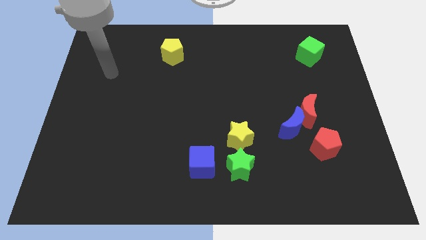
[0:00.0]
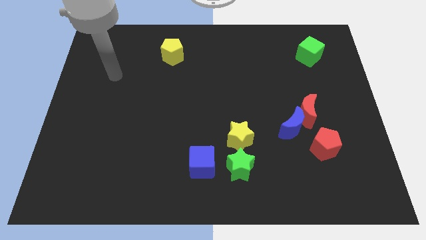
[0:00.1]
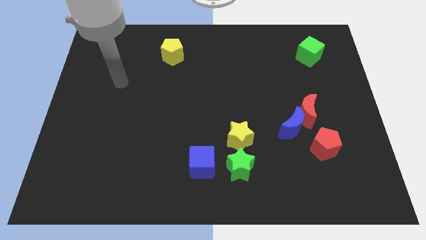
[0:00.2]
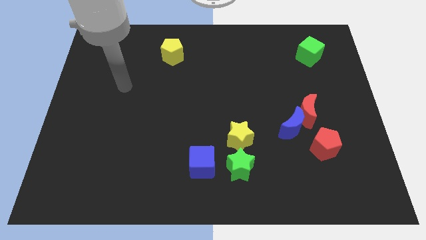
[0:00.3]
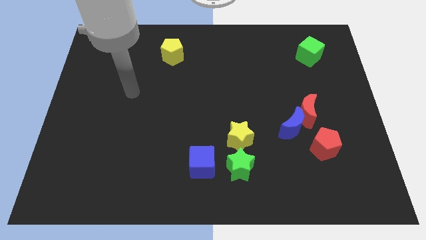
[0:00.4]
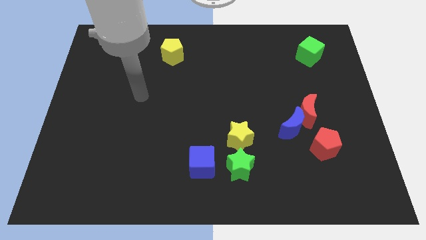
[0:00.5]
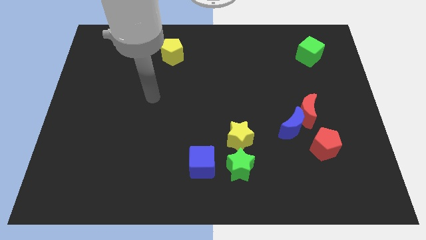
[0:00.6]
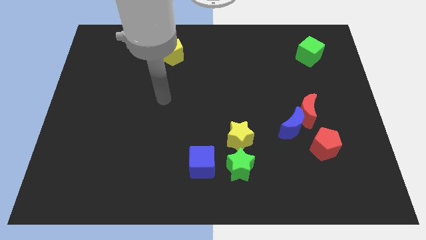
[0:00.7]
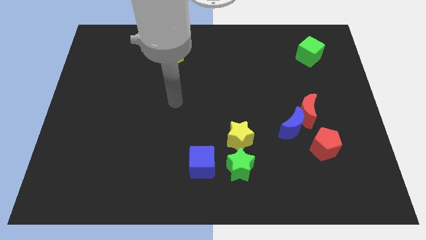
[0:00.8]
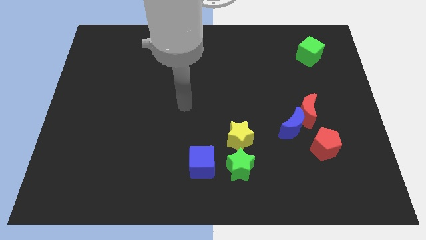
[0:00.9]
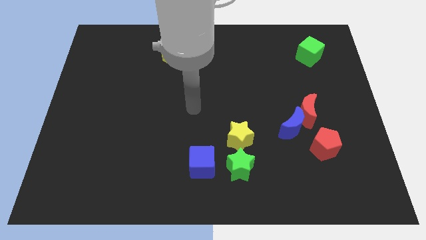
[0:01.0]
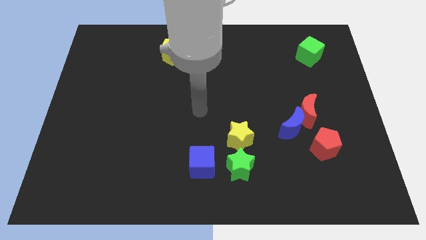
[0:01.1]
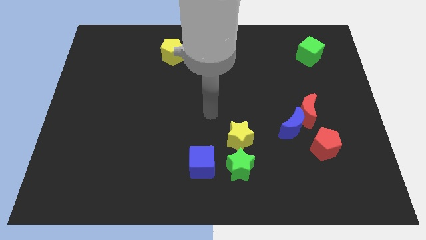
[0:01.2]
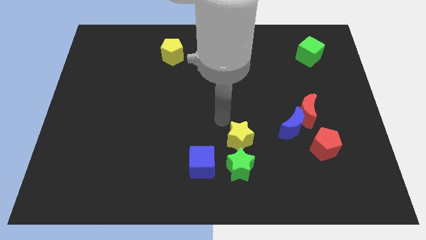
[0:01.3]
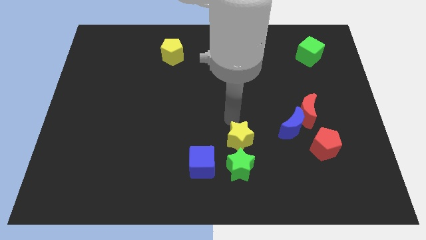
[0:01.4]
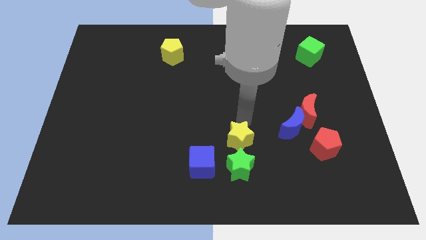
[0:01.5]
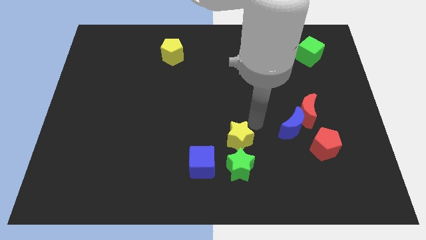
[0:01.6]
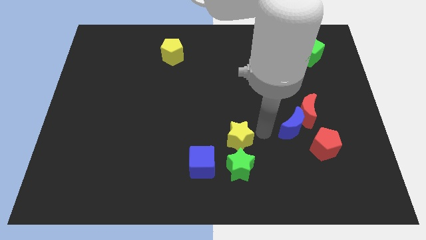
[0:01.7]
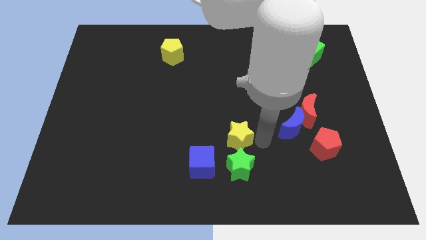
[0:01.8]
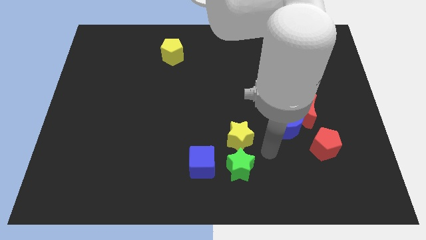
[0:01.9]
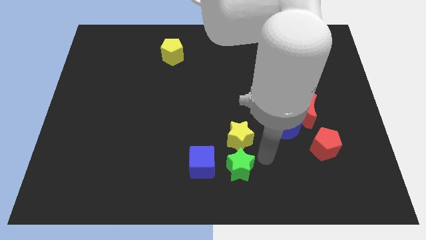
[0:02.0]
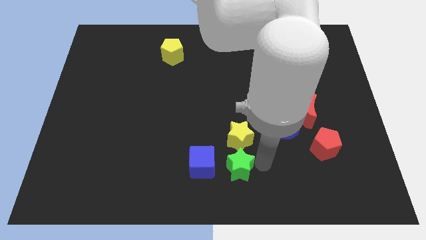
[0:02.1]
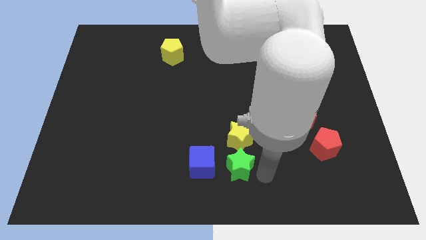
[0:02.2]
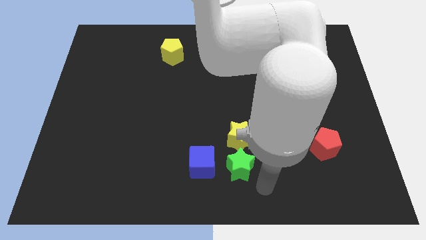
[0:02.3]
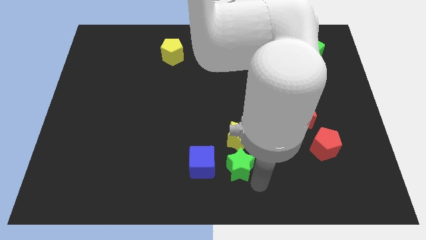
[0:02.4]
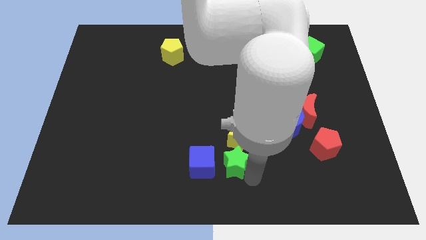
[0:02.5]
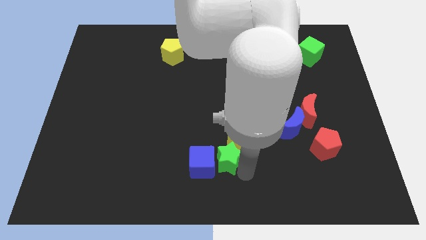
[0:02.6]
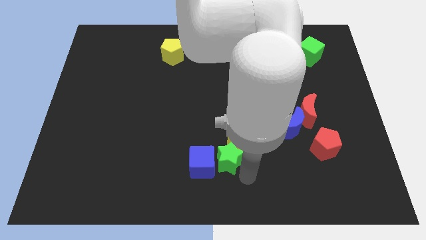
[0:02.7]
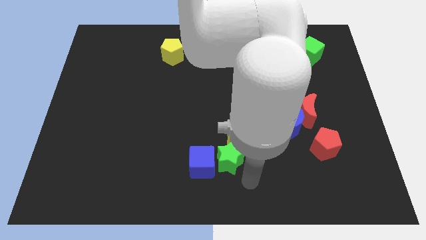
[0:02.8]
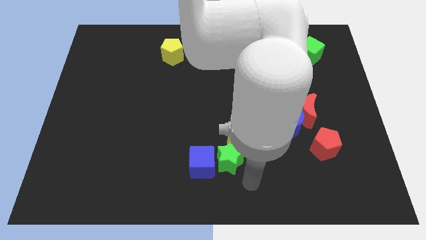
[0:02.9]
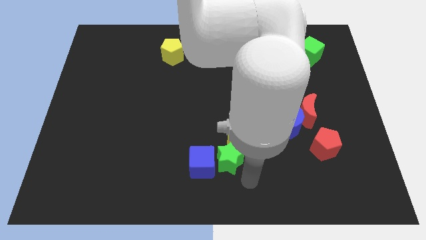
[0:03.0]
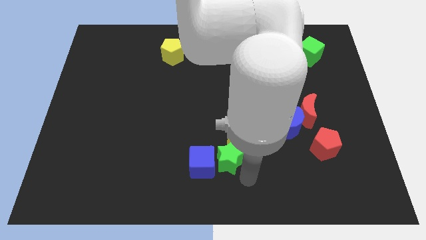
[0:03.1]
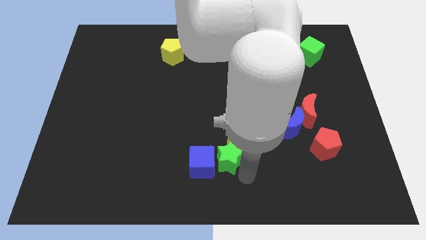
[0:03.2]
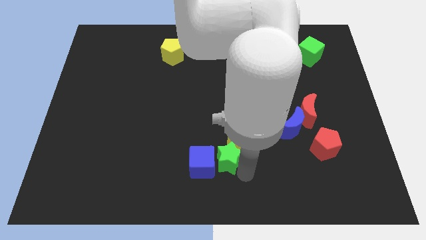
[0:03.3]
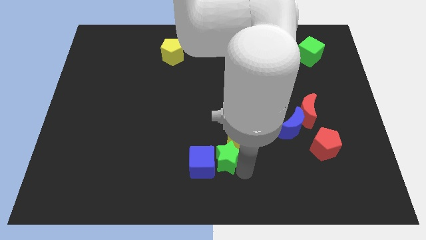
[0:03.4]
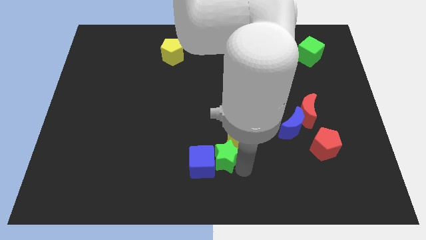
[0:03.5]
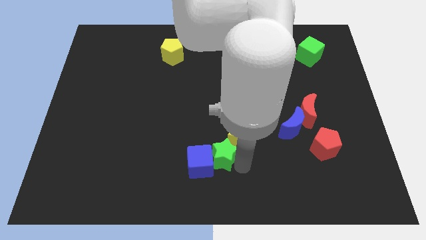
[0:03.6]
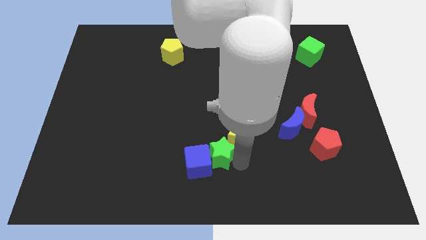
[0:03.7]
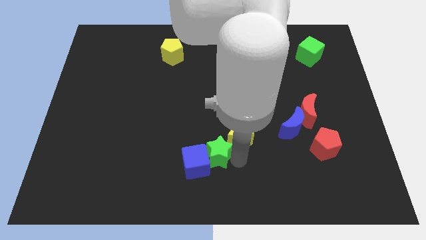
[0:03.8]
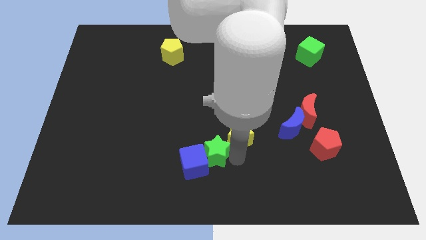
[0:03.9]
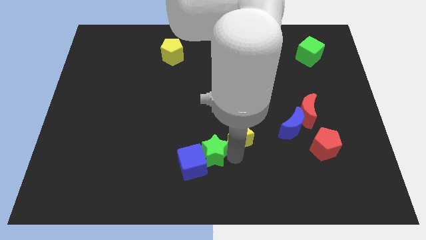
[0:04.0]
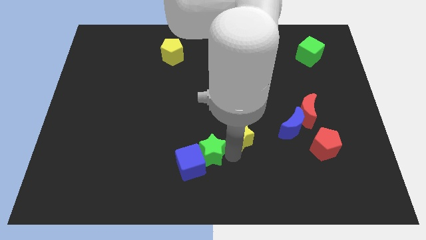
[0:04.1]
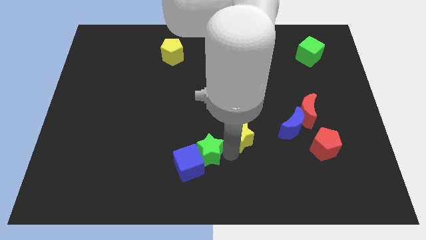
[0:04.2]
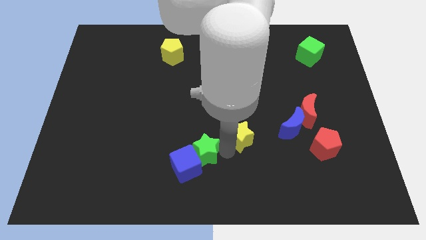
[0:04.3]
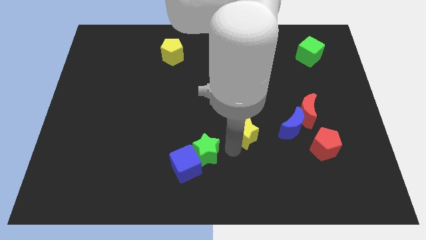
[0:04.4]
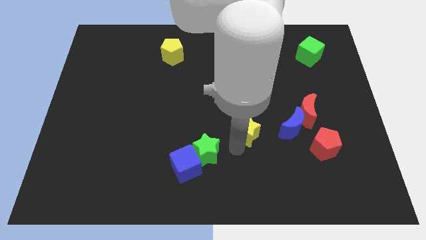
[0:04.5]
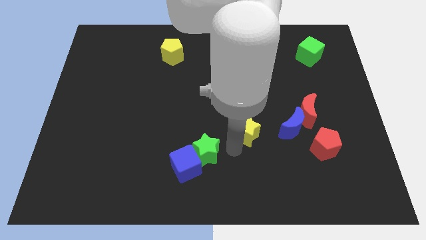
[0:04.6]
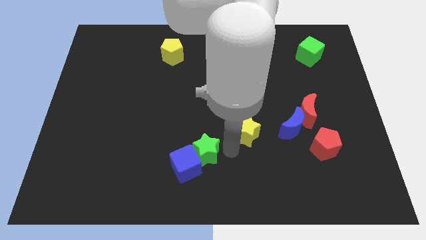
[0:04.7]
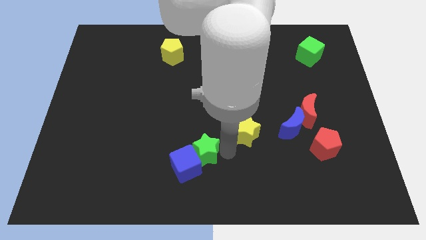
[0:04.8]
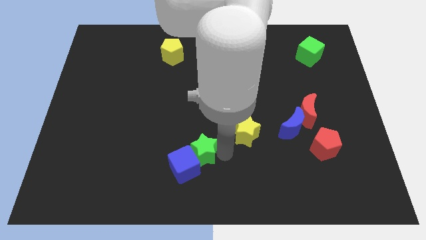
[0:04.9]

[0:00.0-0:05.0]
move the green star to the left slightly

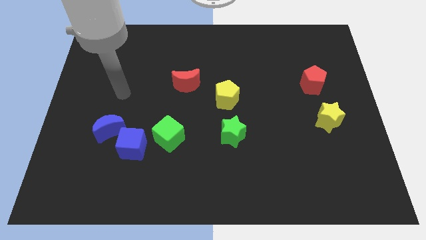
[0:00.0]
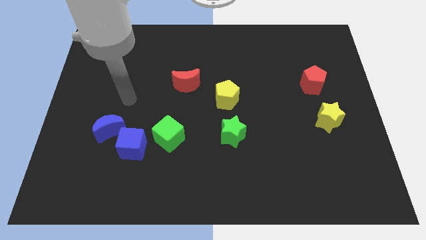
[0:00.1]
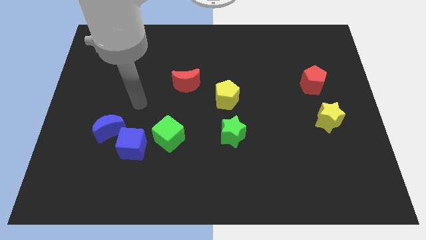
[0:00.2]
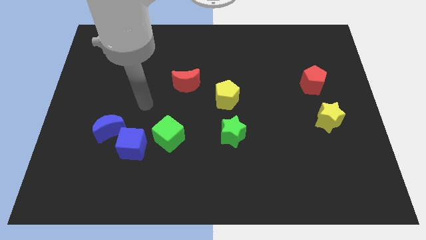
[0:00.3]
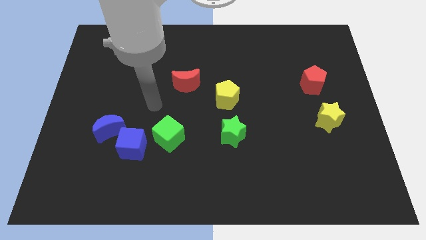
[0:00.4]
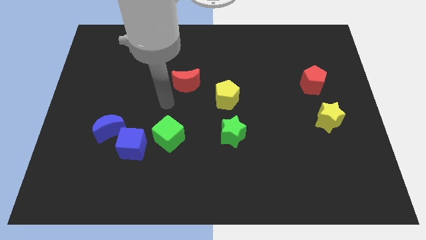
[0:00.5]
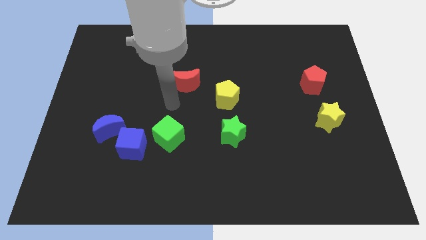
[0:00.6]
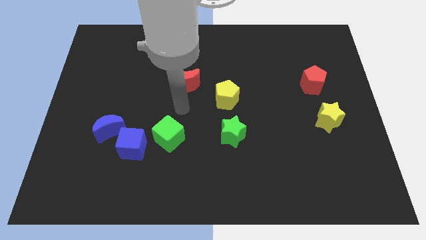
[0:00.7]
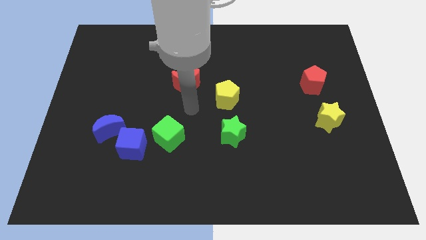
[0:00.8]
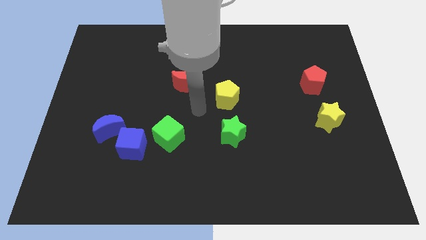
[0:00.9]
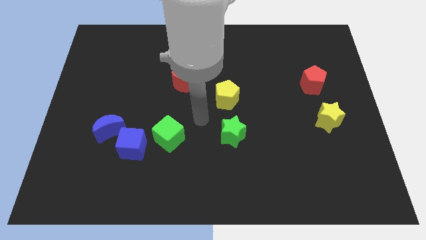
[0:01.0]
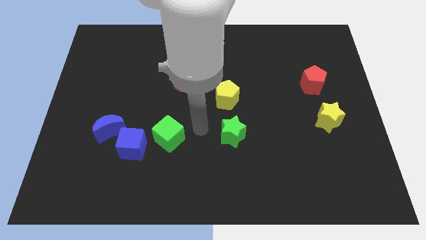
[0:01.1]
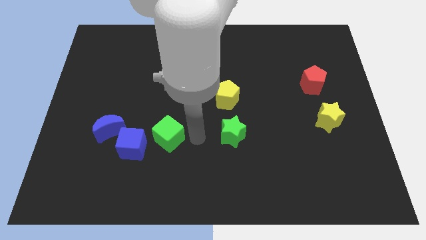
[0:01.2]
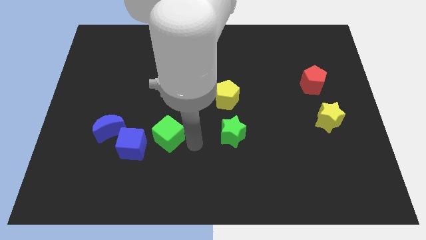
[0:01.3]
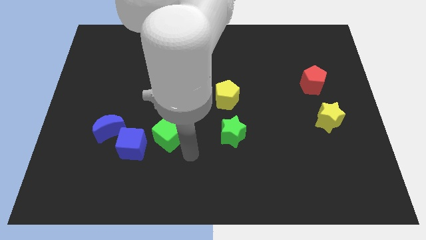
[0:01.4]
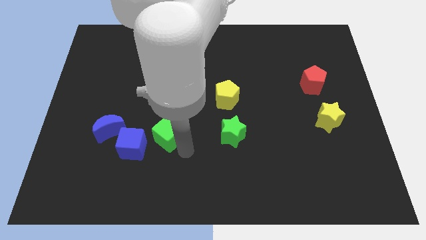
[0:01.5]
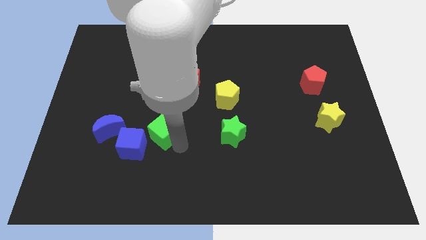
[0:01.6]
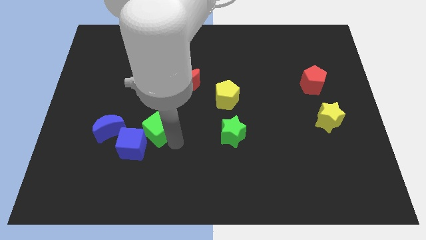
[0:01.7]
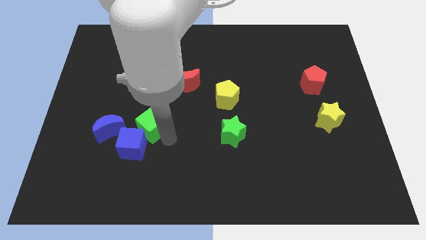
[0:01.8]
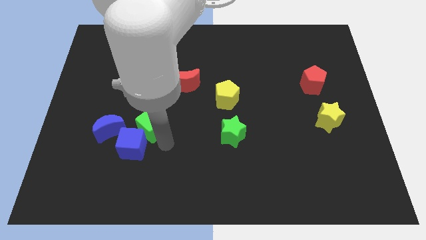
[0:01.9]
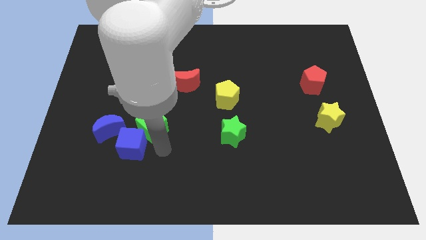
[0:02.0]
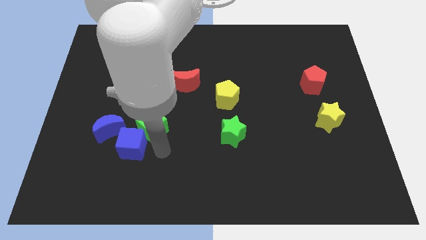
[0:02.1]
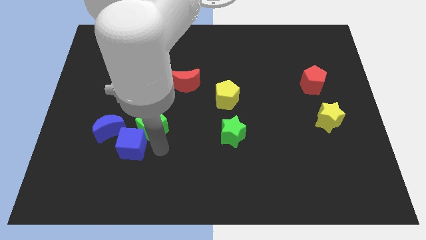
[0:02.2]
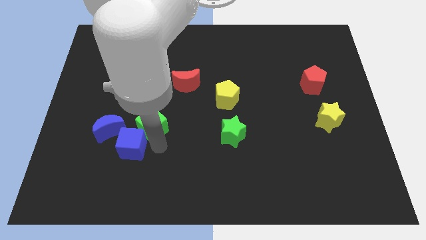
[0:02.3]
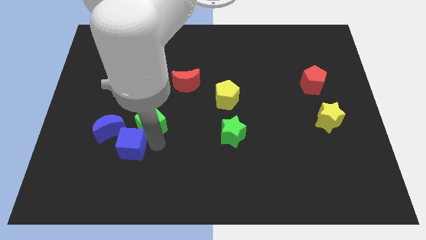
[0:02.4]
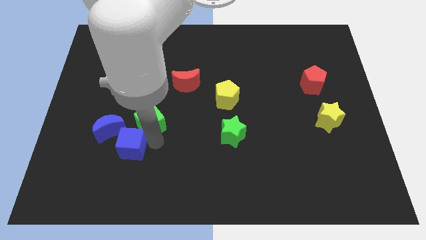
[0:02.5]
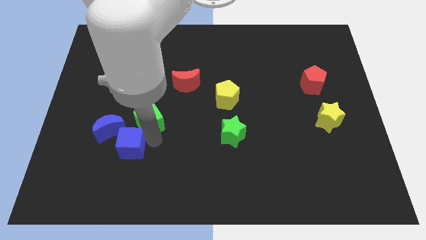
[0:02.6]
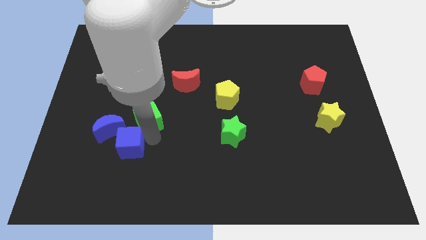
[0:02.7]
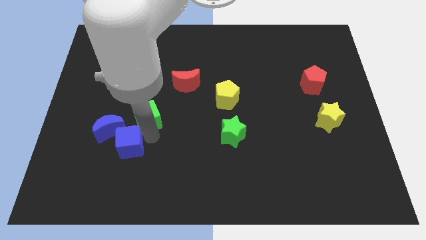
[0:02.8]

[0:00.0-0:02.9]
slide the green cube up and to the left a bit
